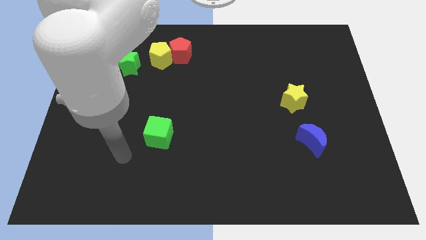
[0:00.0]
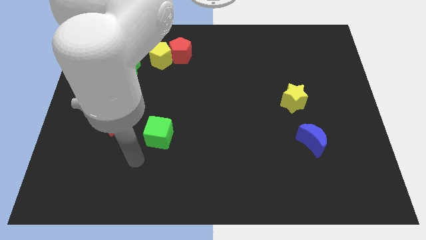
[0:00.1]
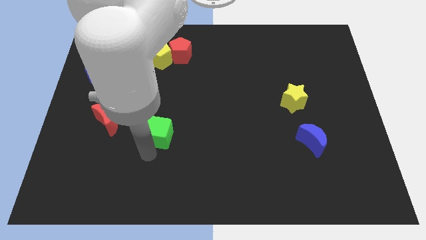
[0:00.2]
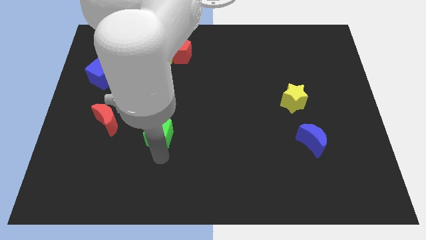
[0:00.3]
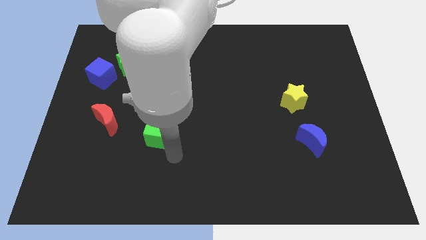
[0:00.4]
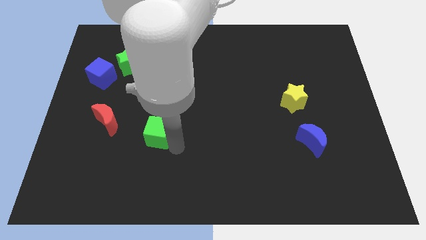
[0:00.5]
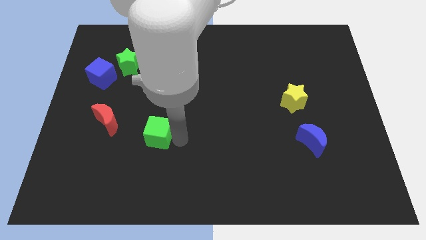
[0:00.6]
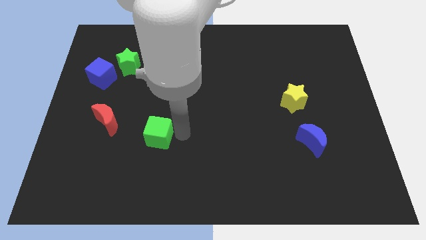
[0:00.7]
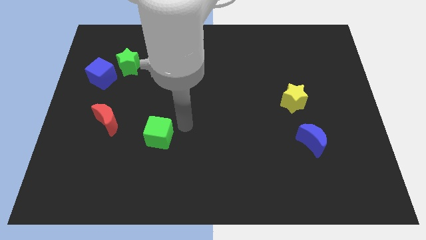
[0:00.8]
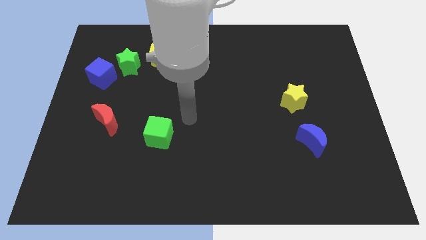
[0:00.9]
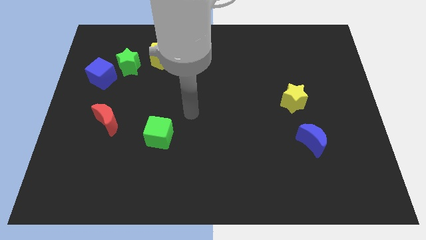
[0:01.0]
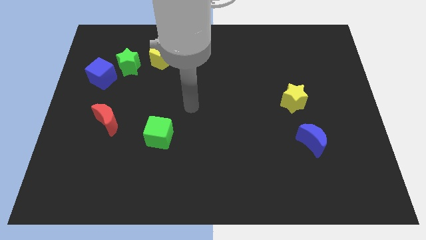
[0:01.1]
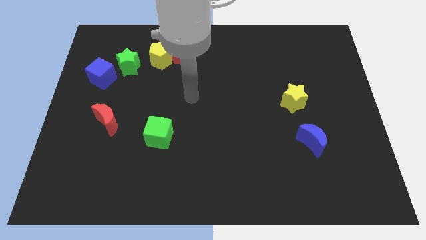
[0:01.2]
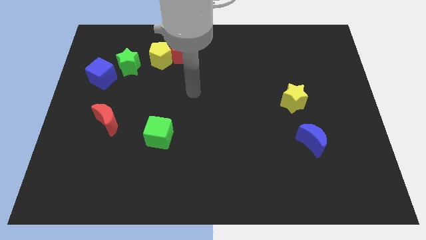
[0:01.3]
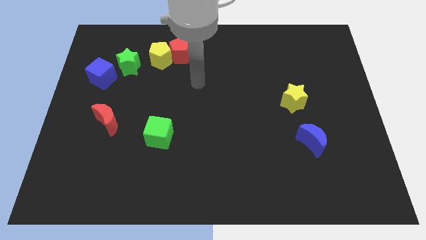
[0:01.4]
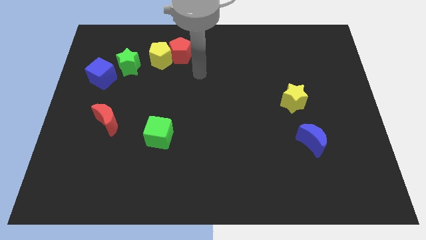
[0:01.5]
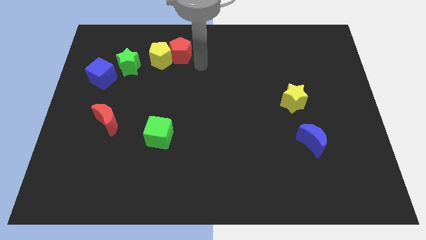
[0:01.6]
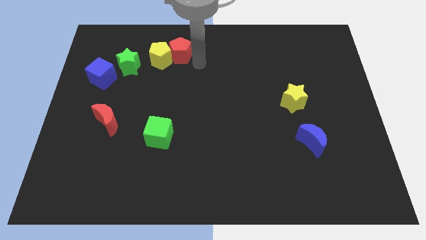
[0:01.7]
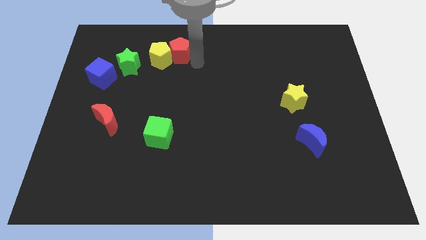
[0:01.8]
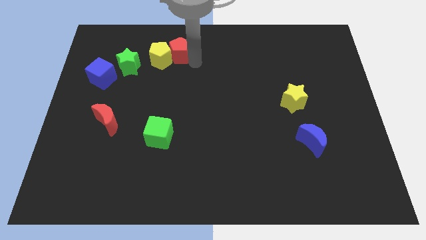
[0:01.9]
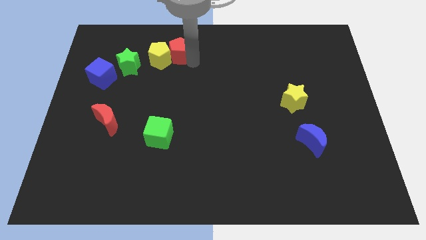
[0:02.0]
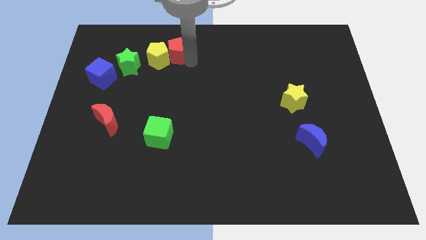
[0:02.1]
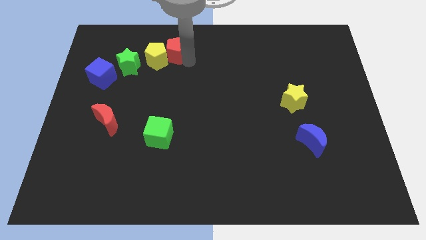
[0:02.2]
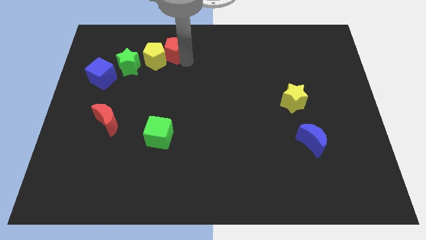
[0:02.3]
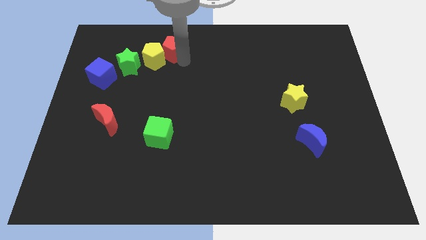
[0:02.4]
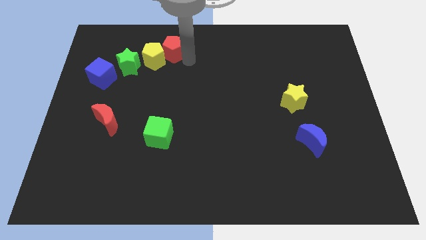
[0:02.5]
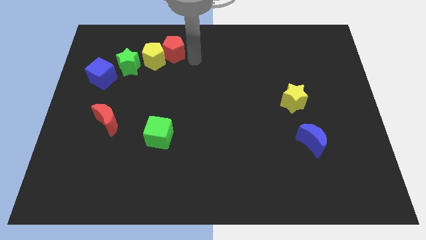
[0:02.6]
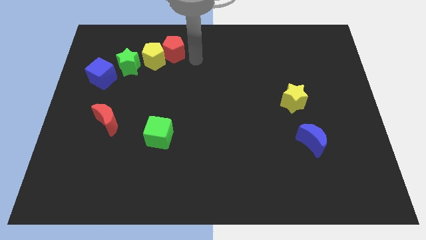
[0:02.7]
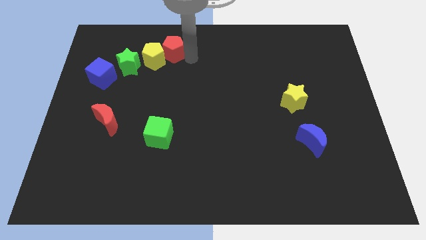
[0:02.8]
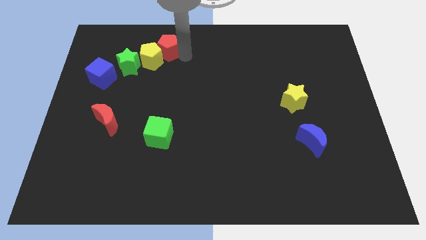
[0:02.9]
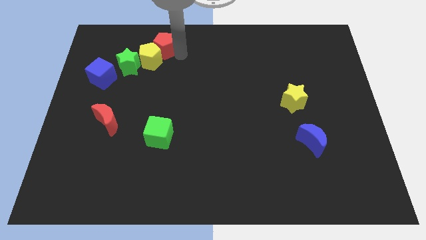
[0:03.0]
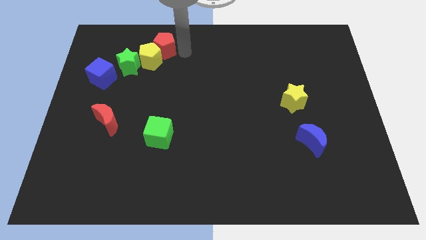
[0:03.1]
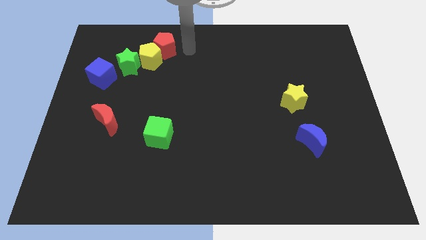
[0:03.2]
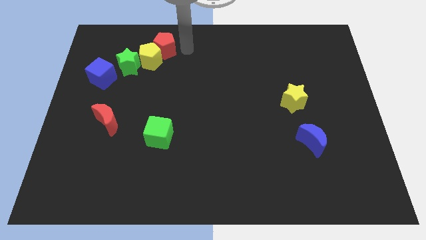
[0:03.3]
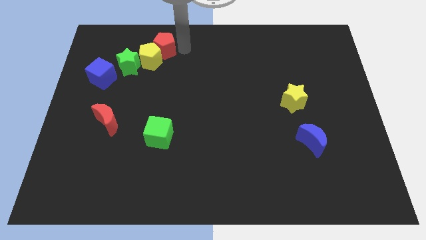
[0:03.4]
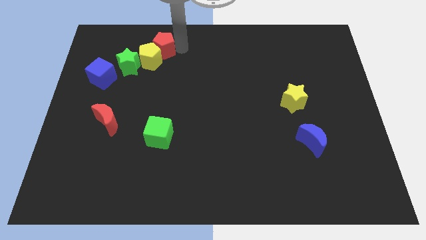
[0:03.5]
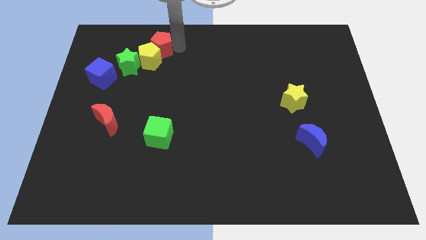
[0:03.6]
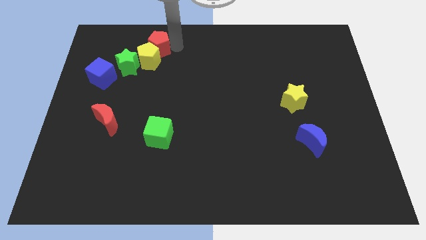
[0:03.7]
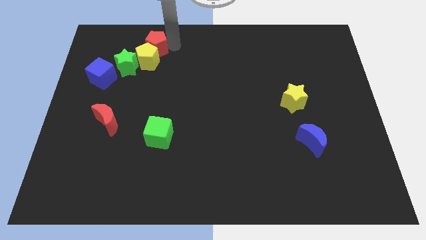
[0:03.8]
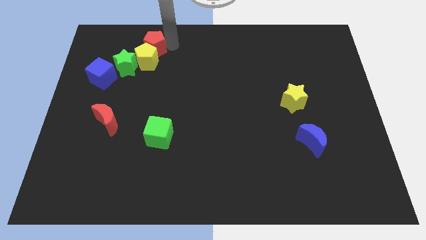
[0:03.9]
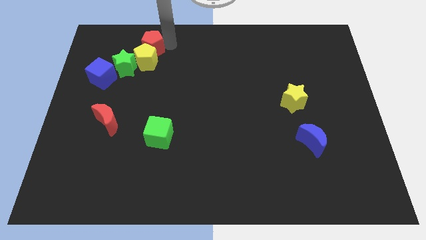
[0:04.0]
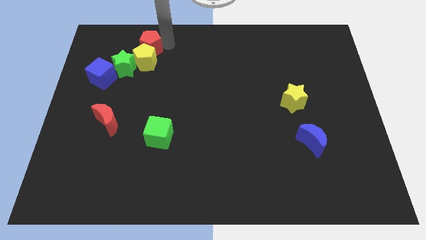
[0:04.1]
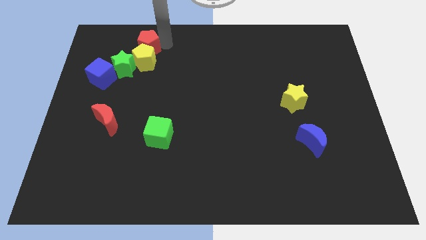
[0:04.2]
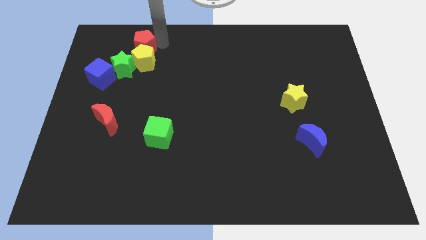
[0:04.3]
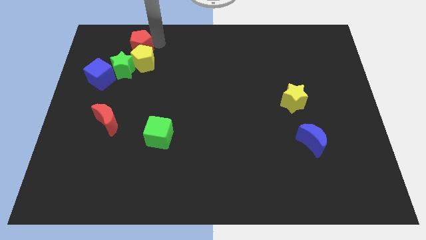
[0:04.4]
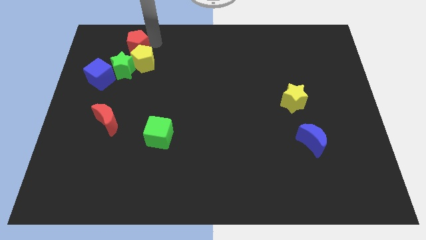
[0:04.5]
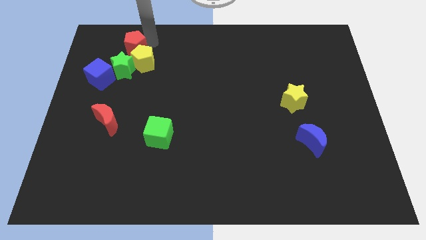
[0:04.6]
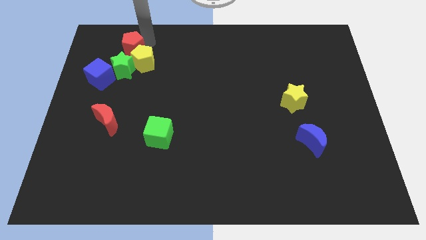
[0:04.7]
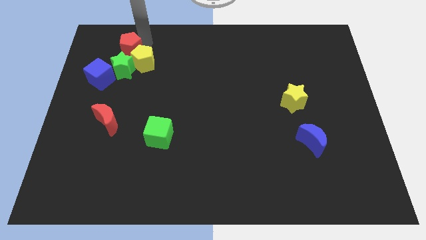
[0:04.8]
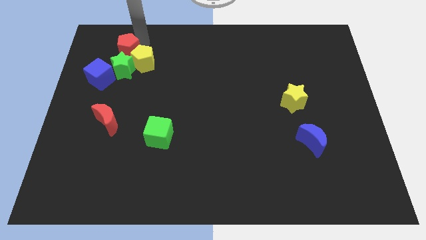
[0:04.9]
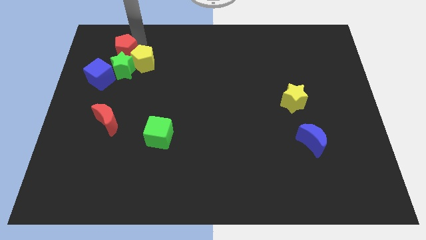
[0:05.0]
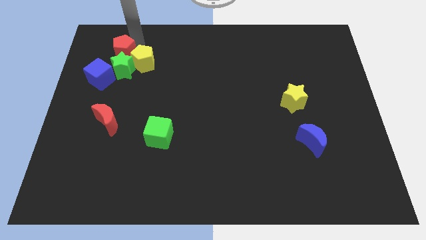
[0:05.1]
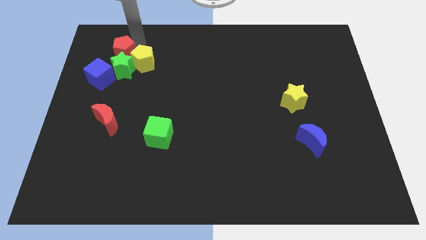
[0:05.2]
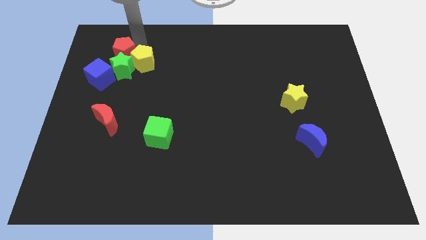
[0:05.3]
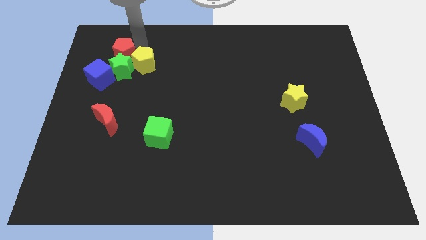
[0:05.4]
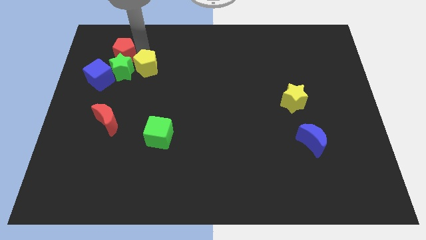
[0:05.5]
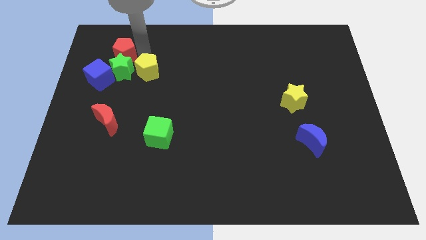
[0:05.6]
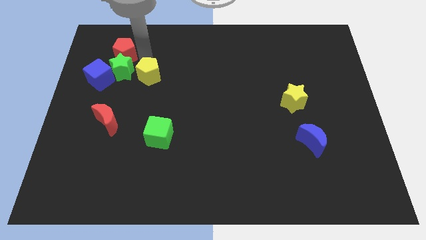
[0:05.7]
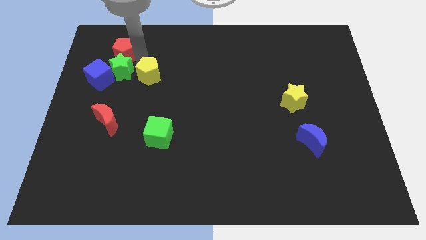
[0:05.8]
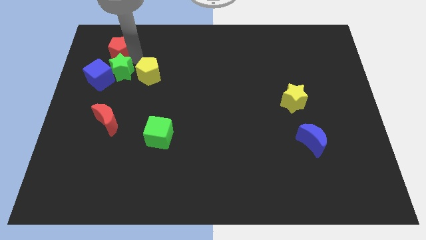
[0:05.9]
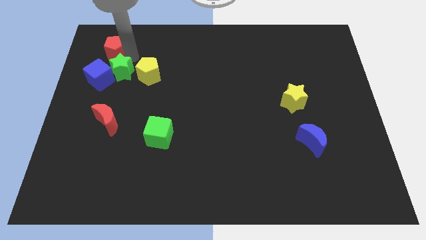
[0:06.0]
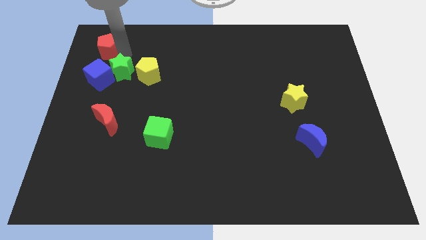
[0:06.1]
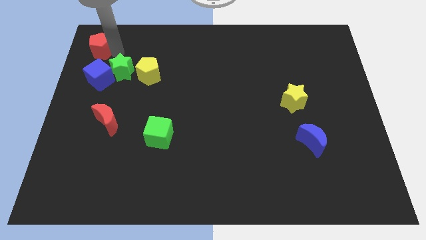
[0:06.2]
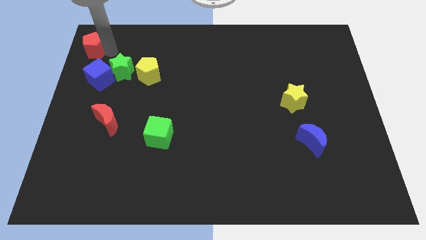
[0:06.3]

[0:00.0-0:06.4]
move the red pentagon to the top left corner
